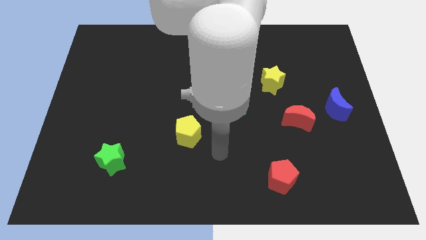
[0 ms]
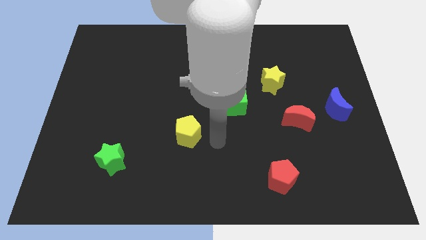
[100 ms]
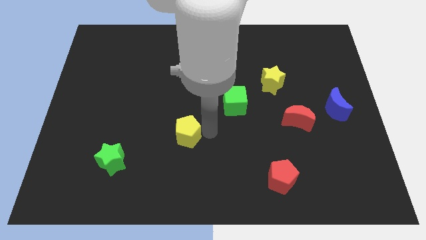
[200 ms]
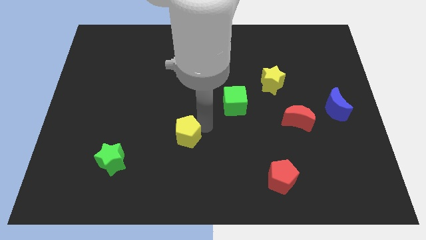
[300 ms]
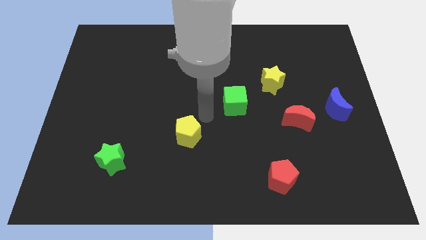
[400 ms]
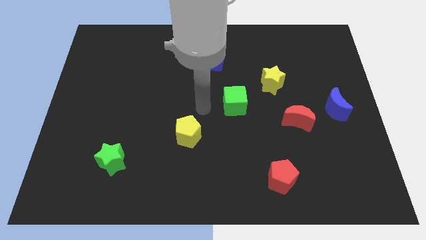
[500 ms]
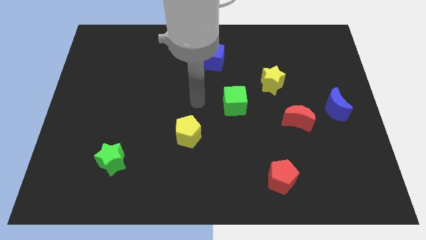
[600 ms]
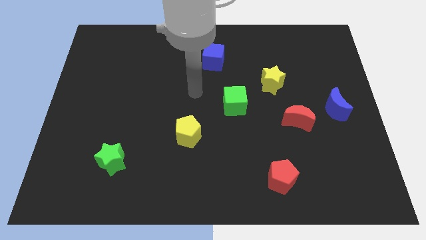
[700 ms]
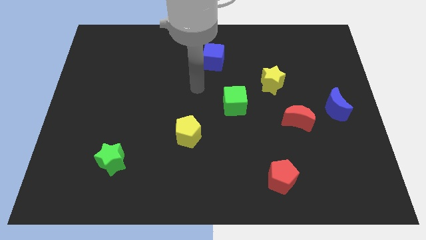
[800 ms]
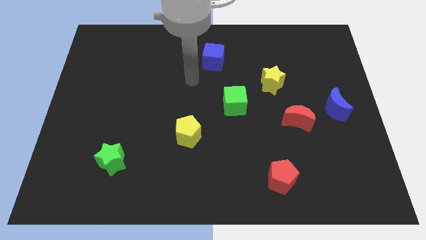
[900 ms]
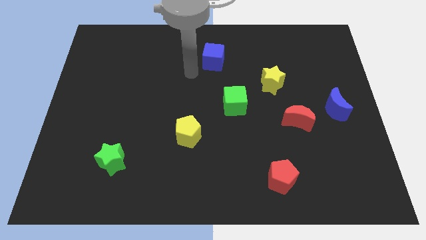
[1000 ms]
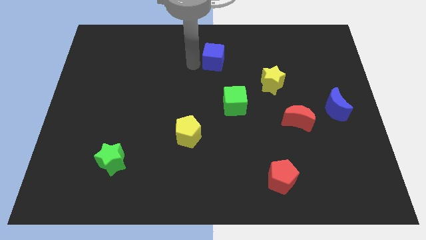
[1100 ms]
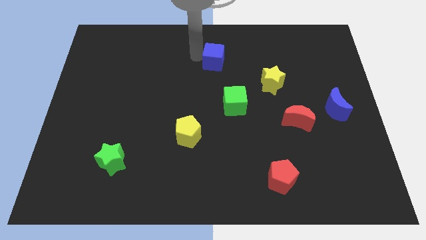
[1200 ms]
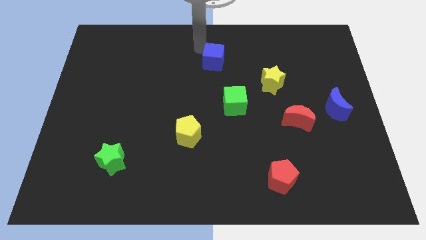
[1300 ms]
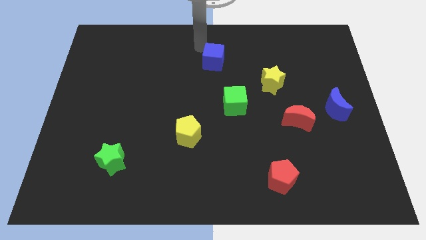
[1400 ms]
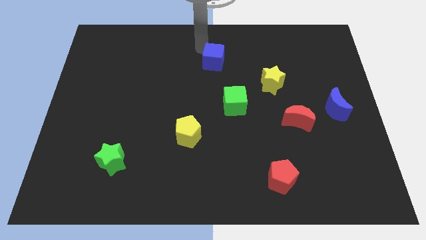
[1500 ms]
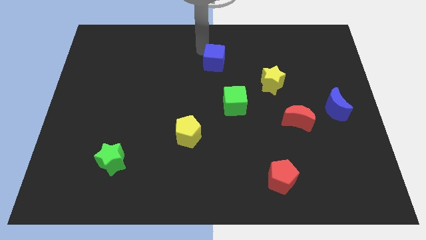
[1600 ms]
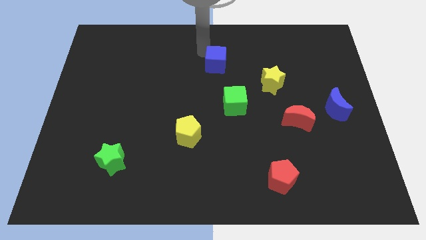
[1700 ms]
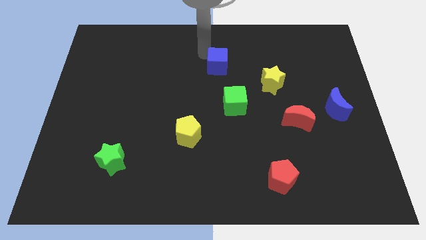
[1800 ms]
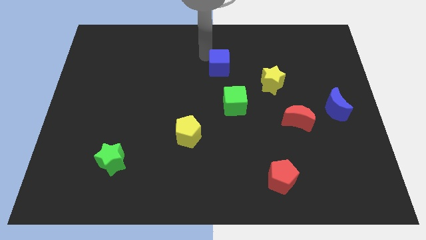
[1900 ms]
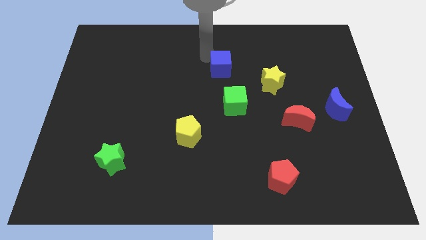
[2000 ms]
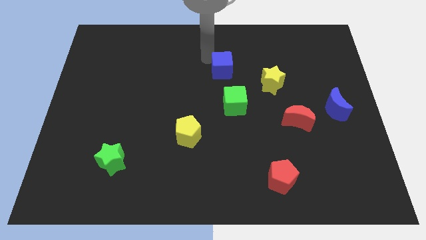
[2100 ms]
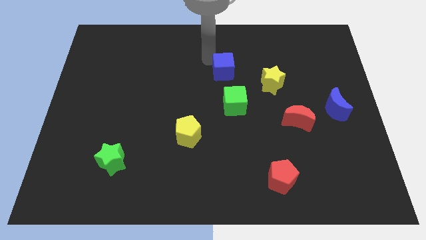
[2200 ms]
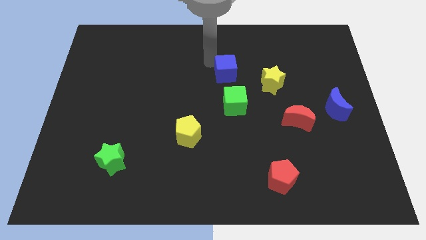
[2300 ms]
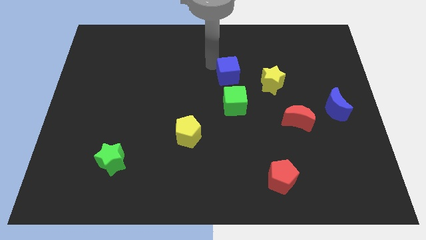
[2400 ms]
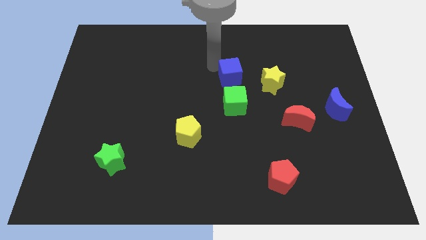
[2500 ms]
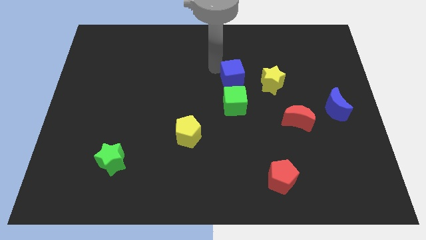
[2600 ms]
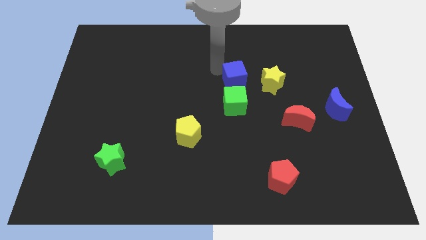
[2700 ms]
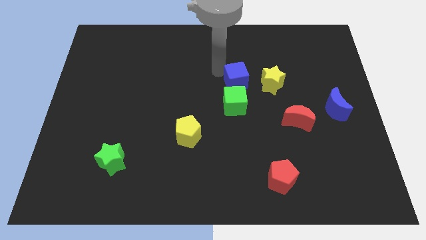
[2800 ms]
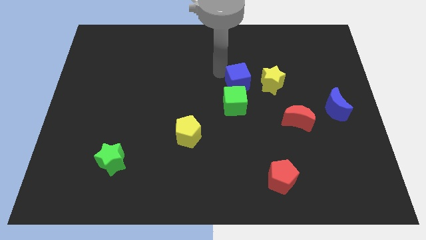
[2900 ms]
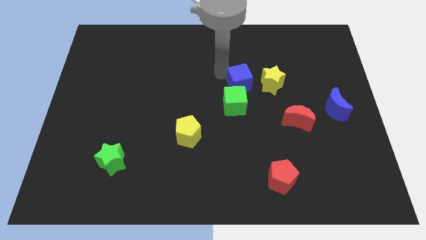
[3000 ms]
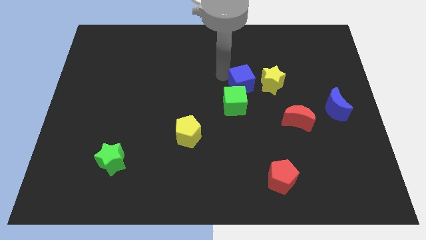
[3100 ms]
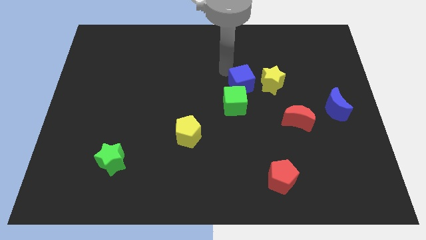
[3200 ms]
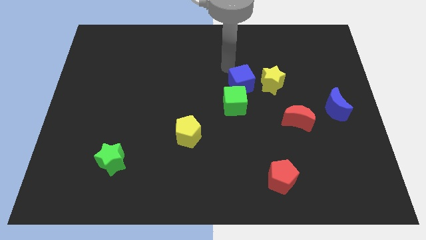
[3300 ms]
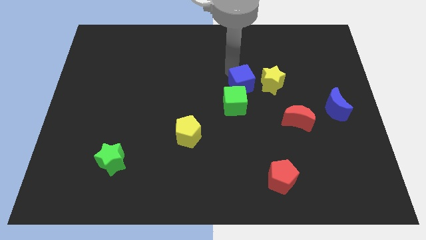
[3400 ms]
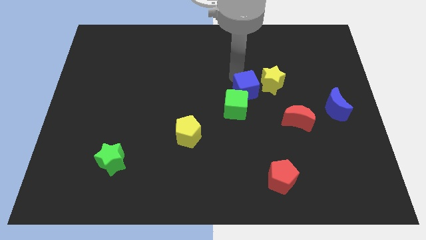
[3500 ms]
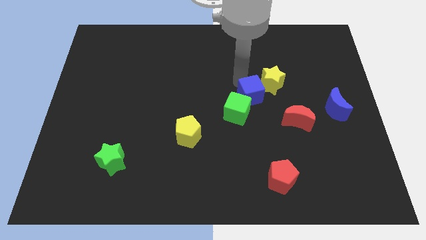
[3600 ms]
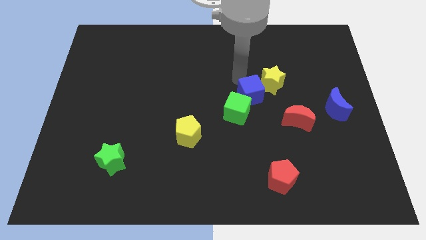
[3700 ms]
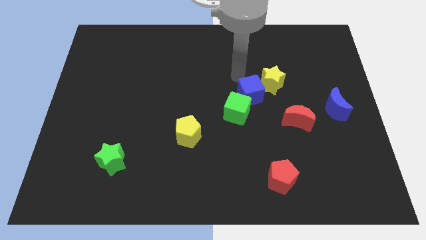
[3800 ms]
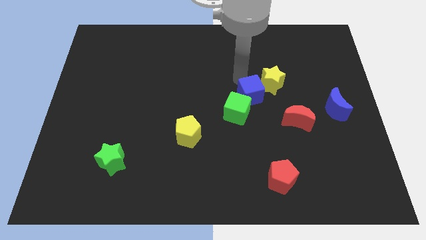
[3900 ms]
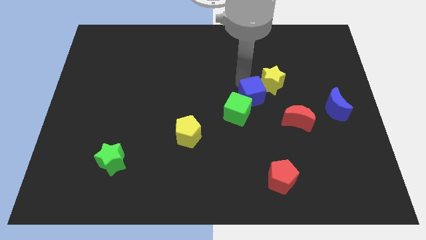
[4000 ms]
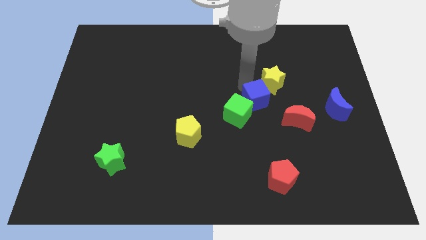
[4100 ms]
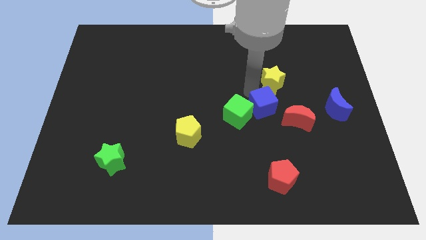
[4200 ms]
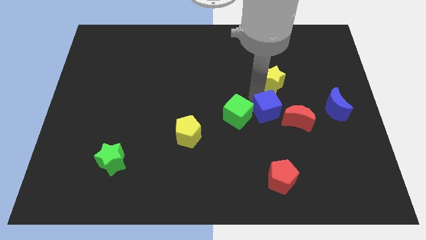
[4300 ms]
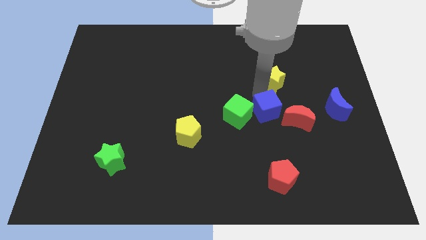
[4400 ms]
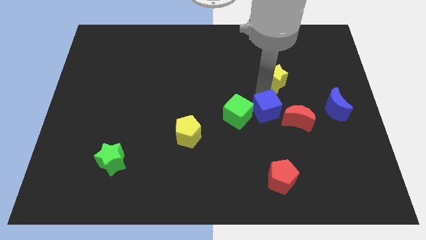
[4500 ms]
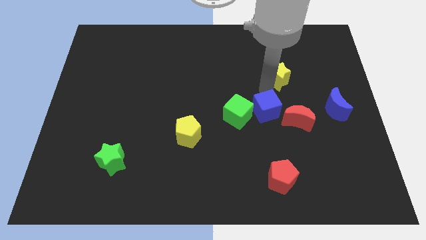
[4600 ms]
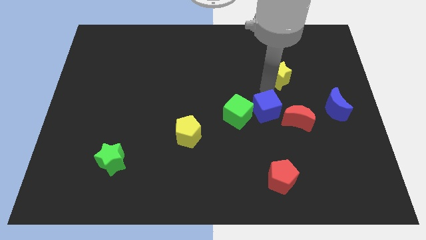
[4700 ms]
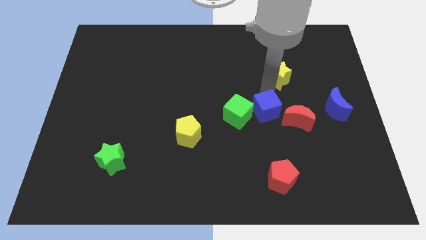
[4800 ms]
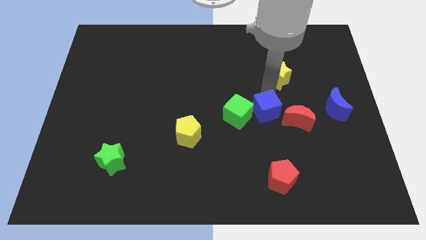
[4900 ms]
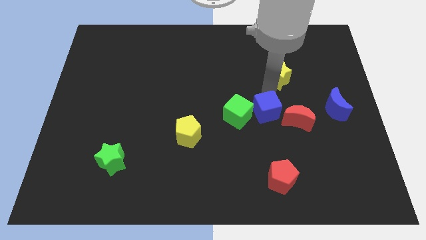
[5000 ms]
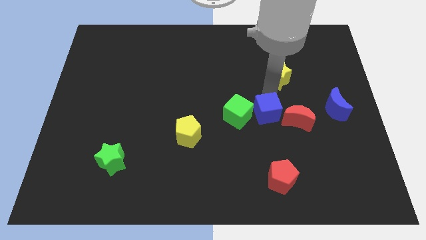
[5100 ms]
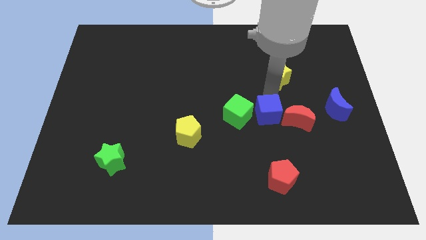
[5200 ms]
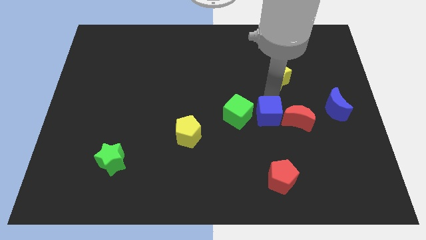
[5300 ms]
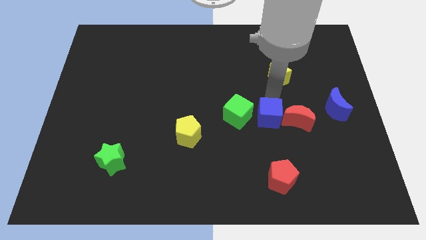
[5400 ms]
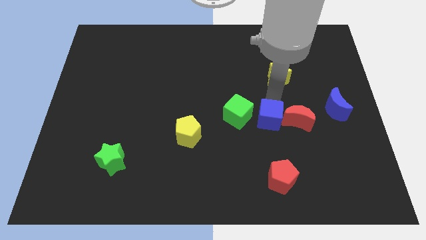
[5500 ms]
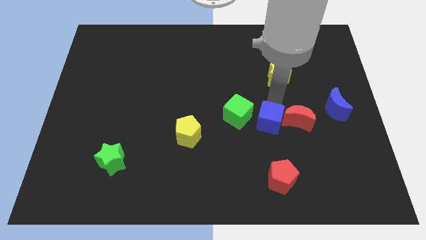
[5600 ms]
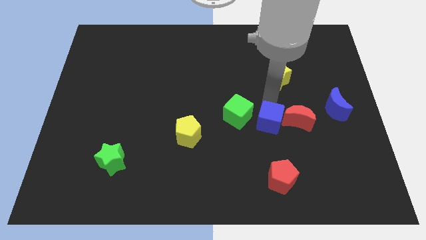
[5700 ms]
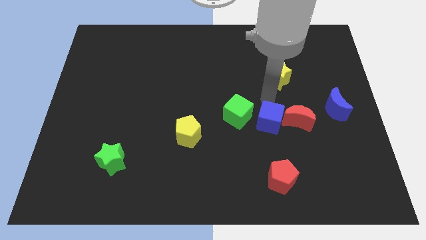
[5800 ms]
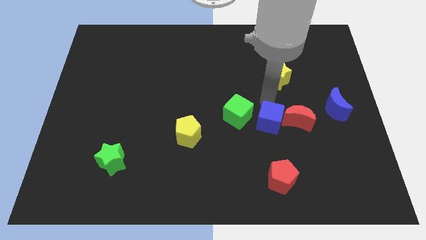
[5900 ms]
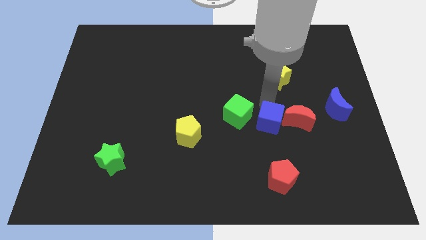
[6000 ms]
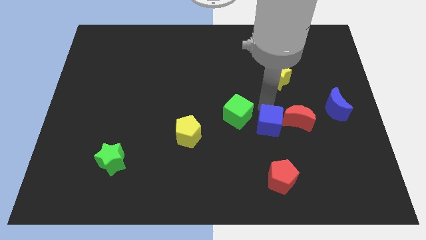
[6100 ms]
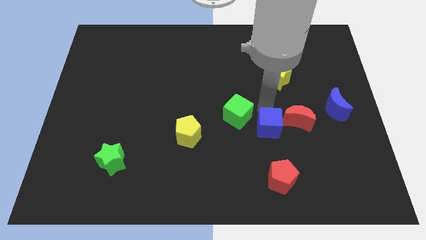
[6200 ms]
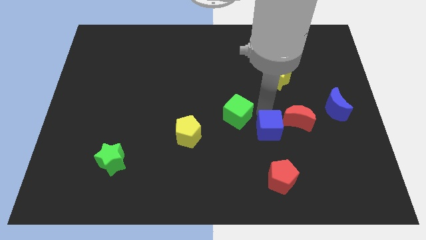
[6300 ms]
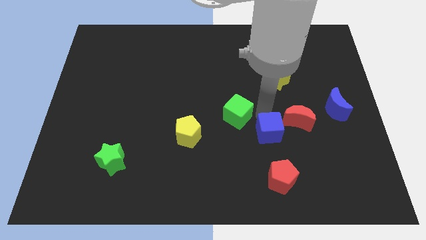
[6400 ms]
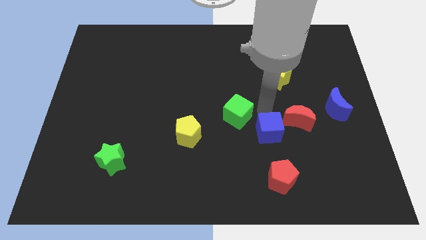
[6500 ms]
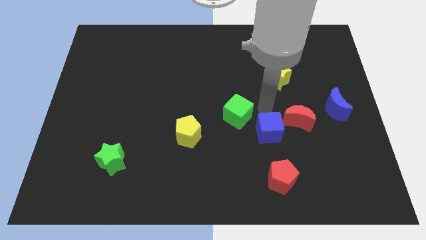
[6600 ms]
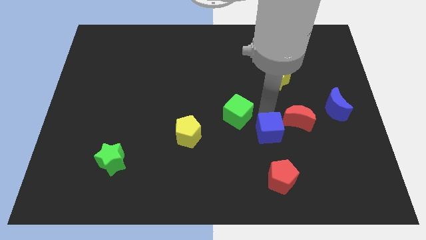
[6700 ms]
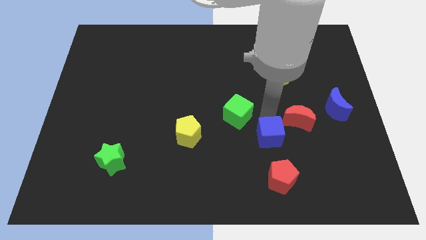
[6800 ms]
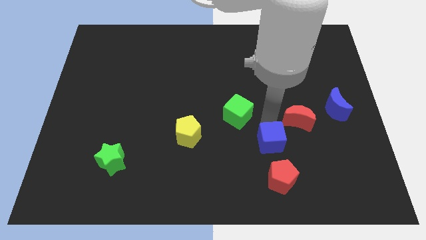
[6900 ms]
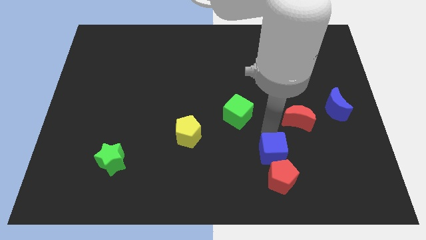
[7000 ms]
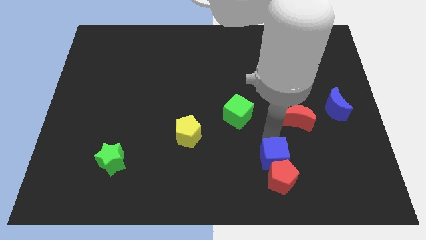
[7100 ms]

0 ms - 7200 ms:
push the blue cube to the red pentagon
